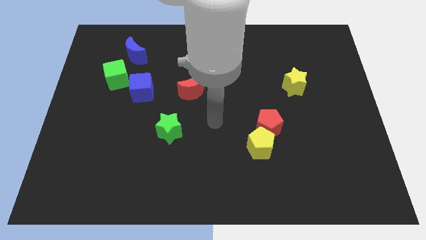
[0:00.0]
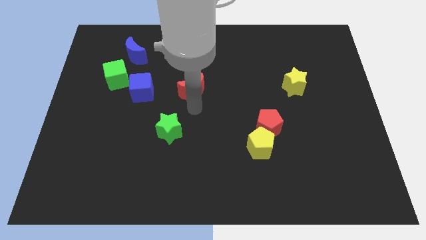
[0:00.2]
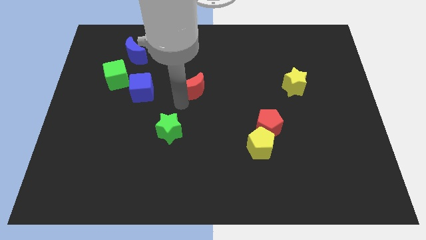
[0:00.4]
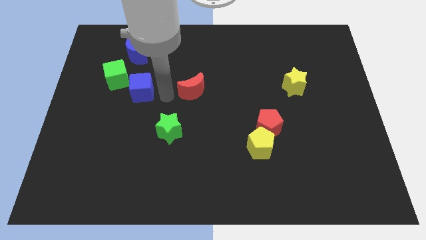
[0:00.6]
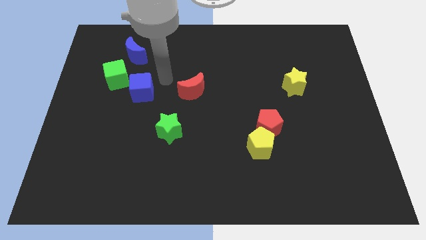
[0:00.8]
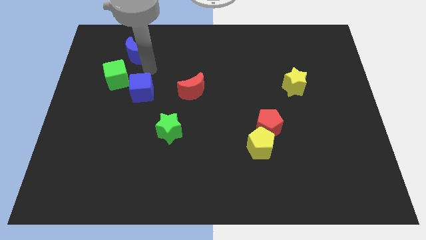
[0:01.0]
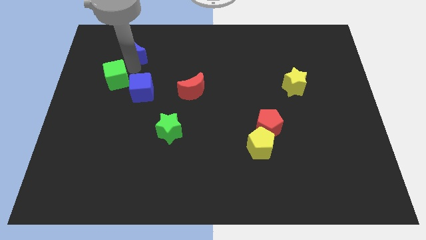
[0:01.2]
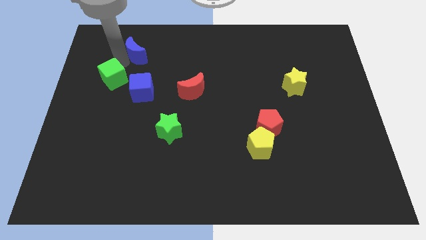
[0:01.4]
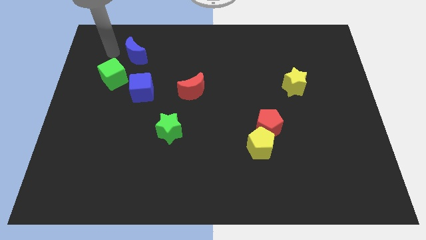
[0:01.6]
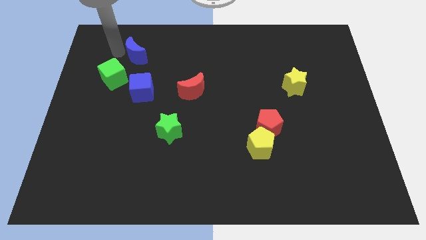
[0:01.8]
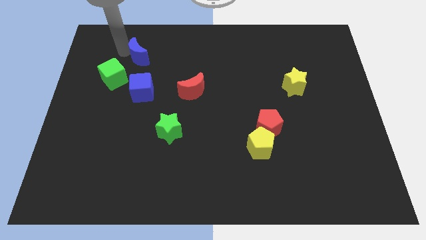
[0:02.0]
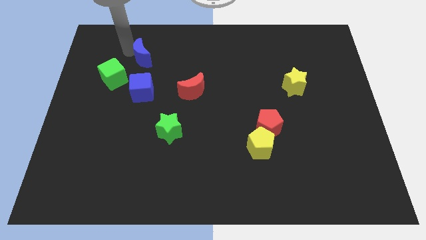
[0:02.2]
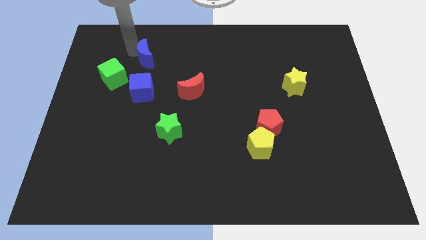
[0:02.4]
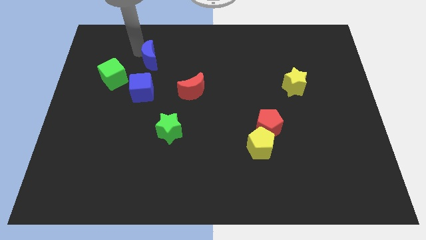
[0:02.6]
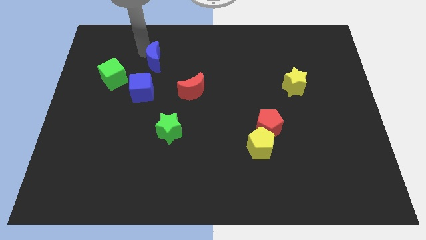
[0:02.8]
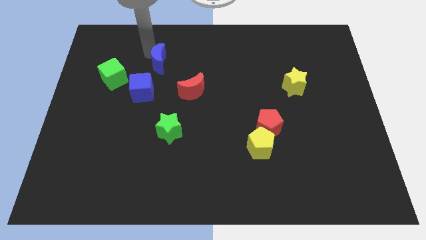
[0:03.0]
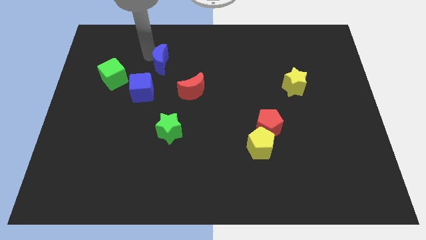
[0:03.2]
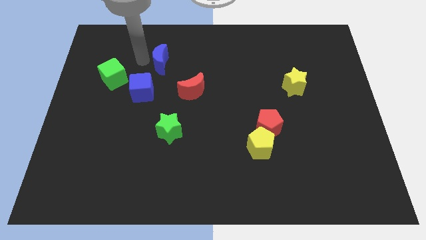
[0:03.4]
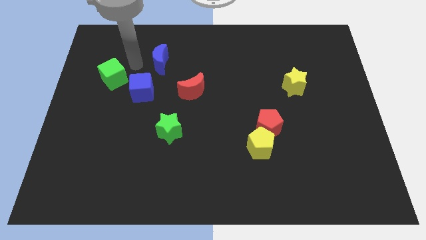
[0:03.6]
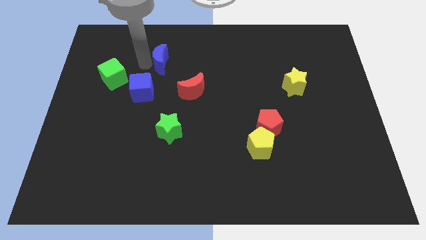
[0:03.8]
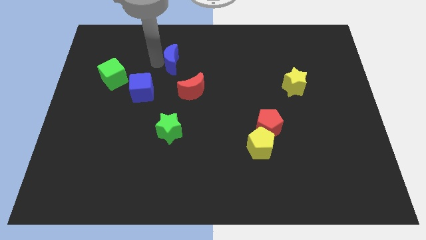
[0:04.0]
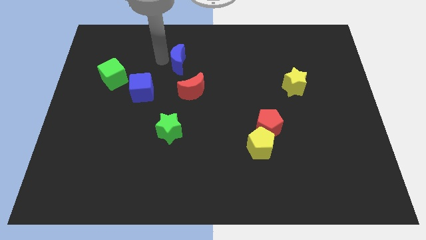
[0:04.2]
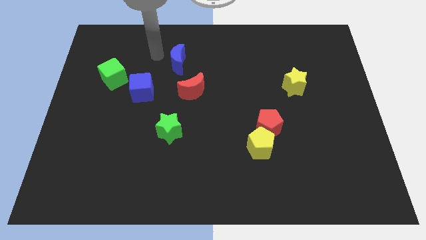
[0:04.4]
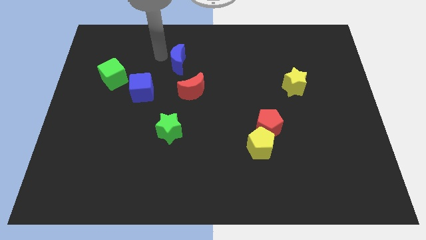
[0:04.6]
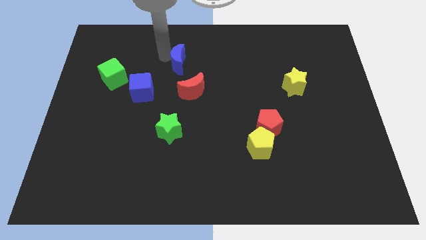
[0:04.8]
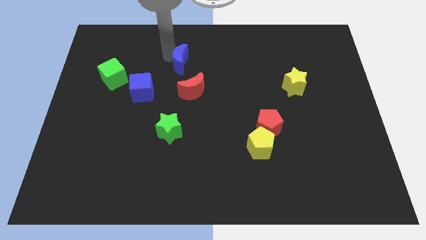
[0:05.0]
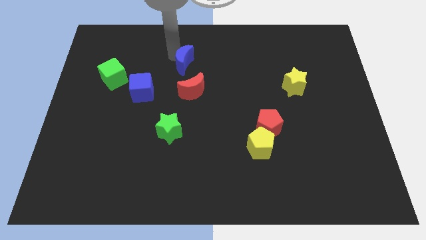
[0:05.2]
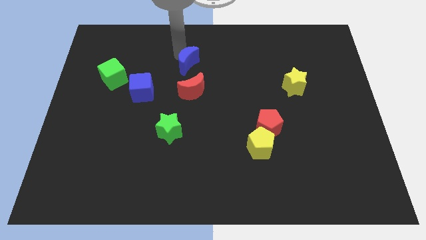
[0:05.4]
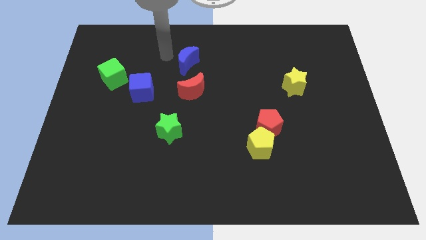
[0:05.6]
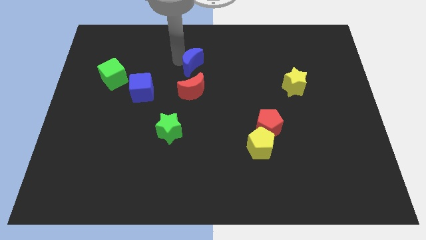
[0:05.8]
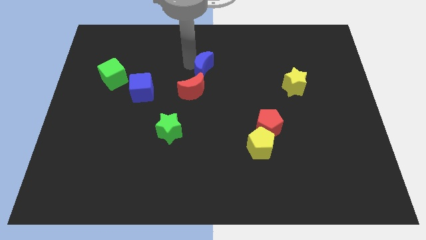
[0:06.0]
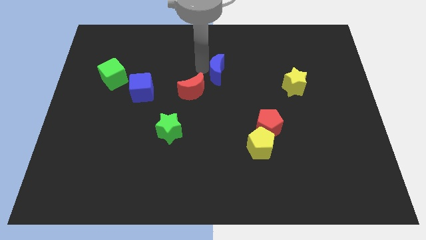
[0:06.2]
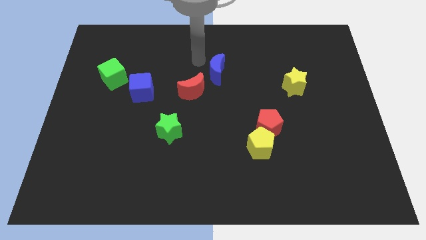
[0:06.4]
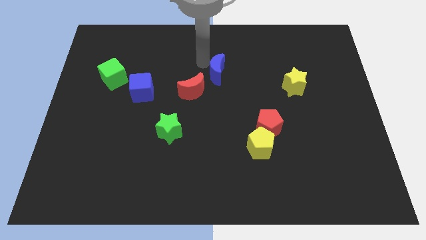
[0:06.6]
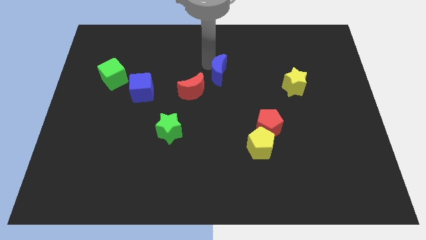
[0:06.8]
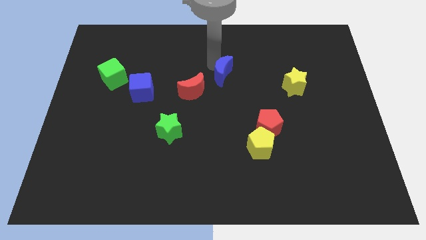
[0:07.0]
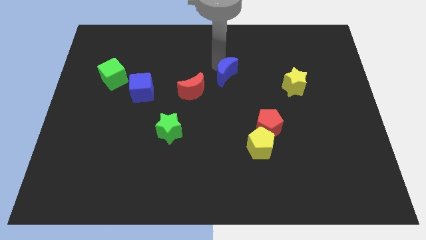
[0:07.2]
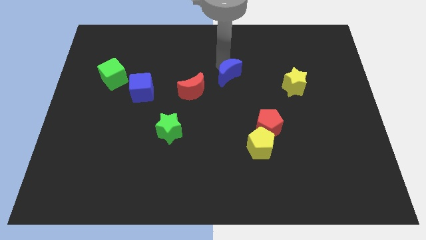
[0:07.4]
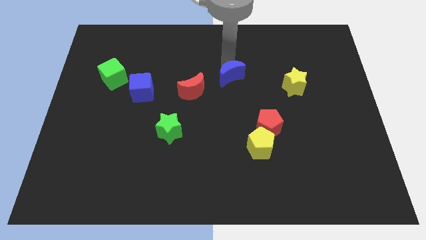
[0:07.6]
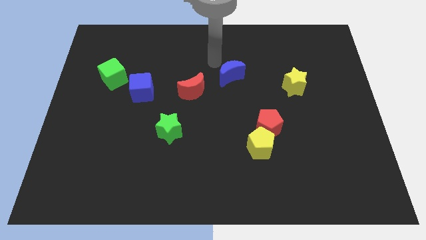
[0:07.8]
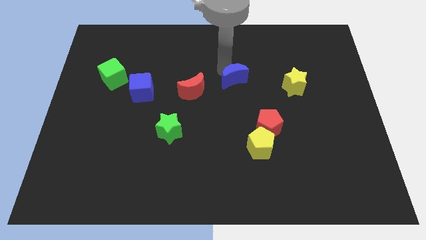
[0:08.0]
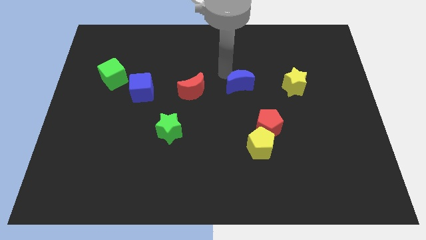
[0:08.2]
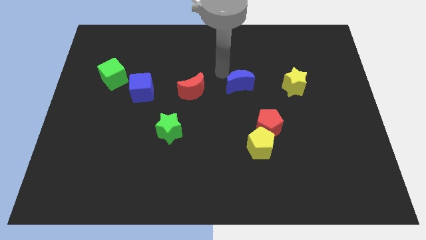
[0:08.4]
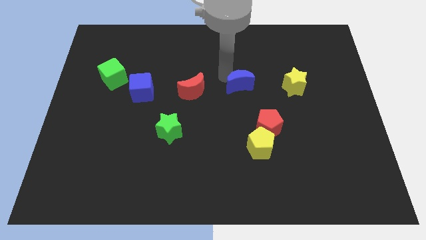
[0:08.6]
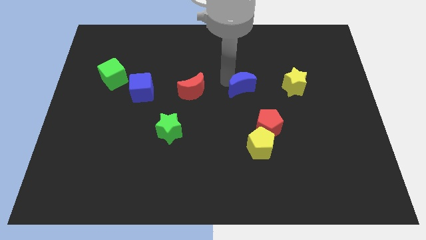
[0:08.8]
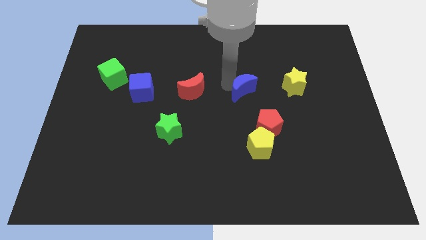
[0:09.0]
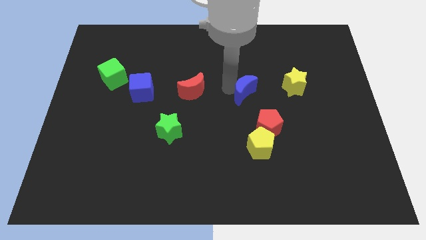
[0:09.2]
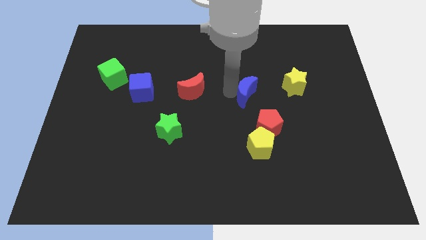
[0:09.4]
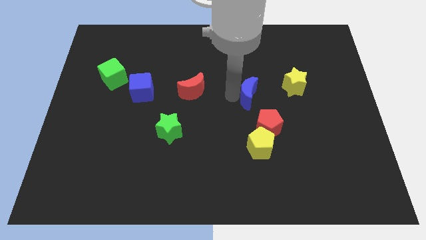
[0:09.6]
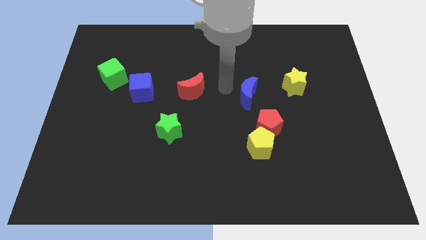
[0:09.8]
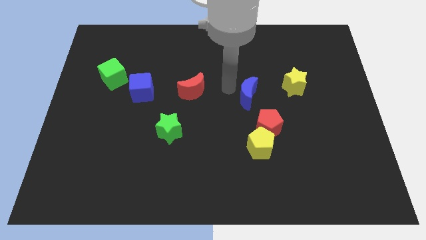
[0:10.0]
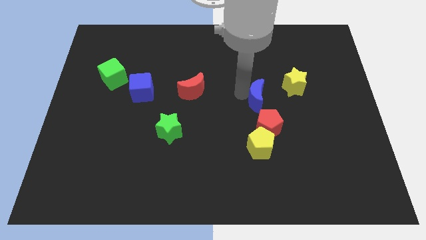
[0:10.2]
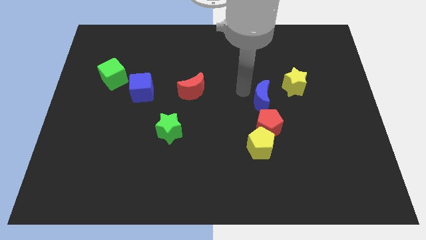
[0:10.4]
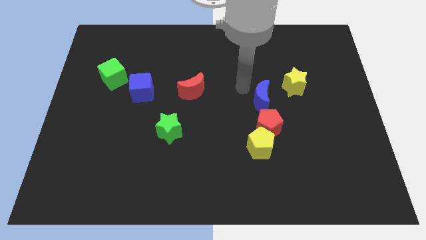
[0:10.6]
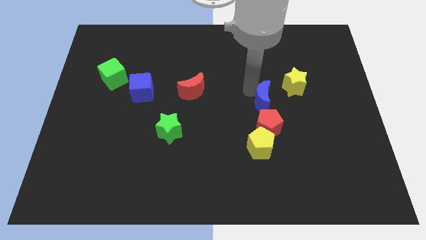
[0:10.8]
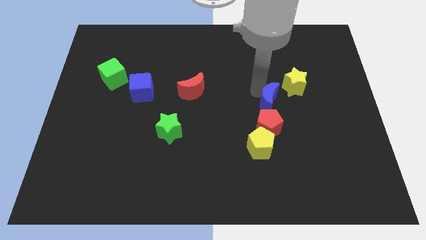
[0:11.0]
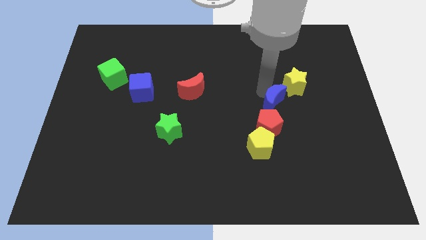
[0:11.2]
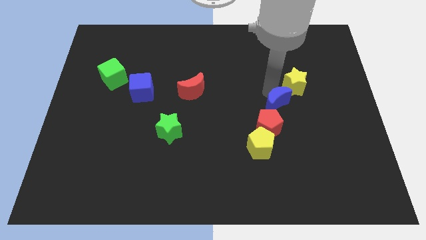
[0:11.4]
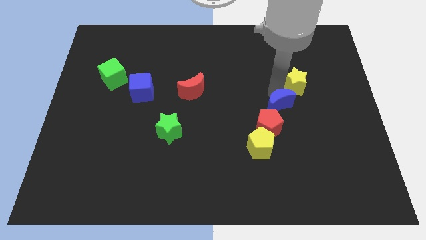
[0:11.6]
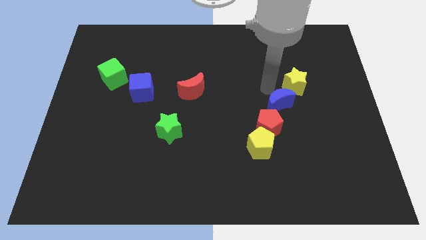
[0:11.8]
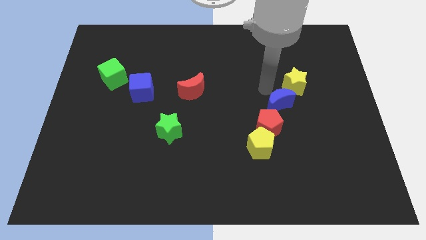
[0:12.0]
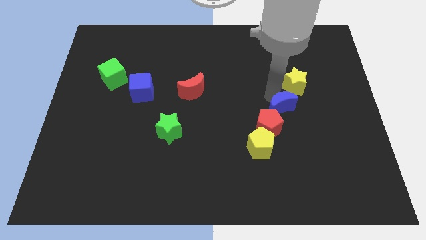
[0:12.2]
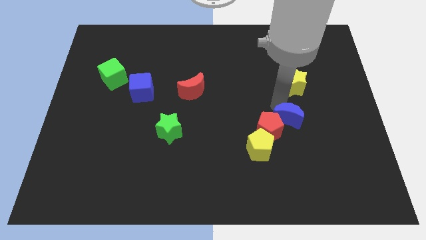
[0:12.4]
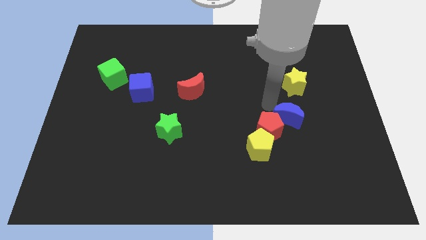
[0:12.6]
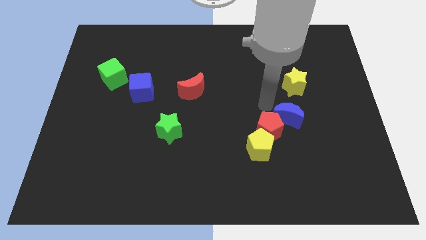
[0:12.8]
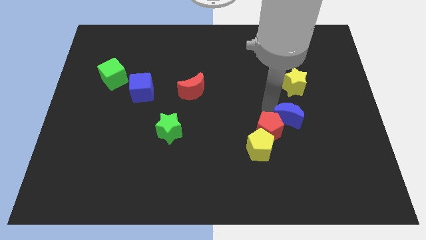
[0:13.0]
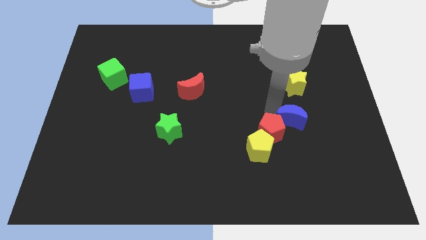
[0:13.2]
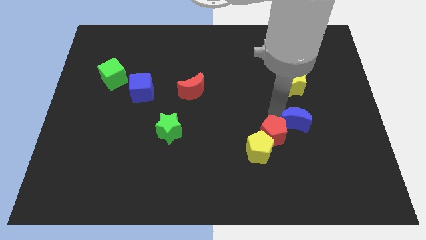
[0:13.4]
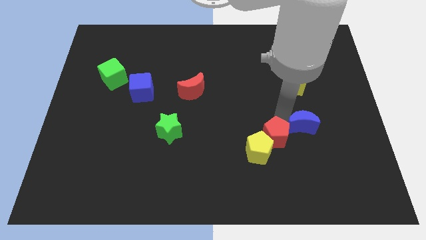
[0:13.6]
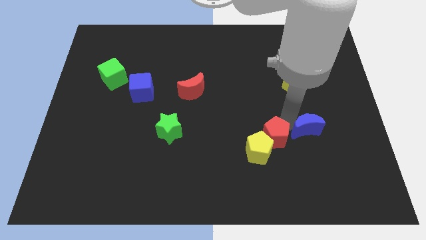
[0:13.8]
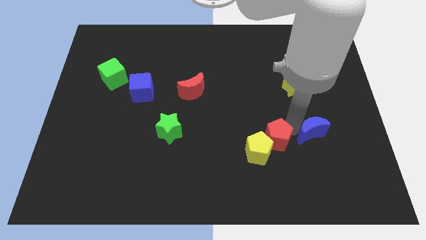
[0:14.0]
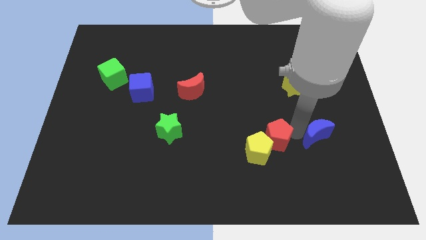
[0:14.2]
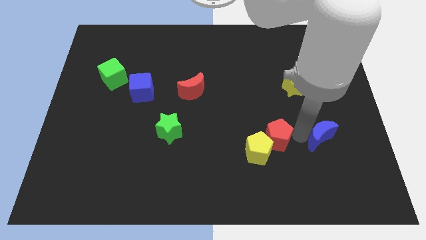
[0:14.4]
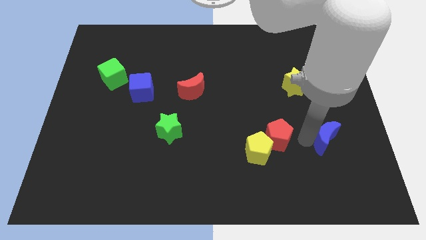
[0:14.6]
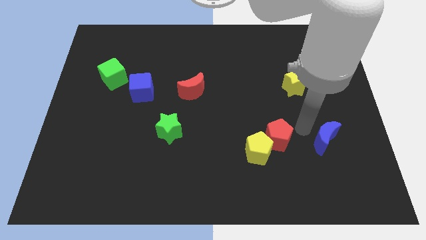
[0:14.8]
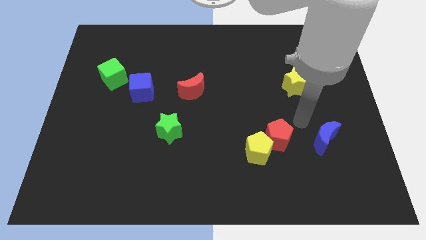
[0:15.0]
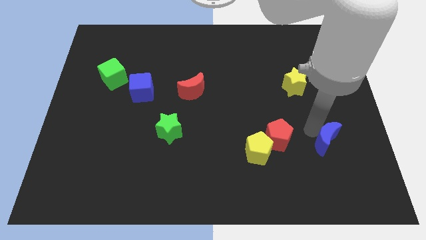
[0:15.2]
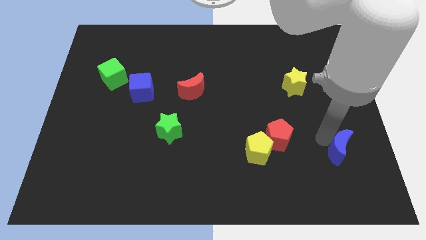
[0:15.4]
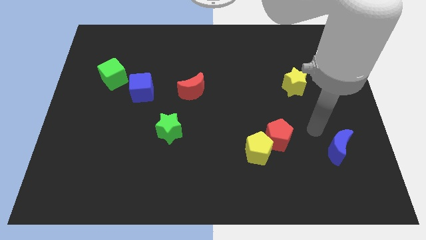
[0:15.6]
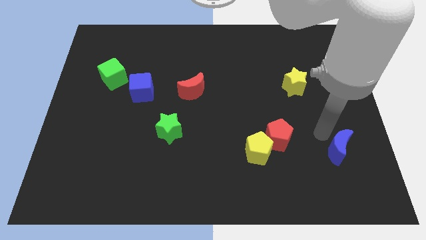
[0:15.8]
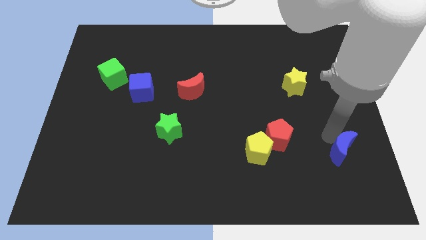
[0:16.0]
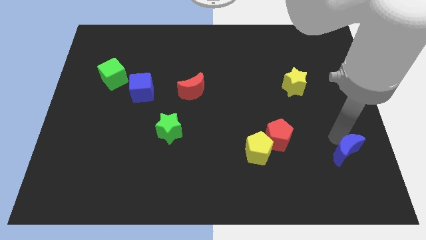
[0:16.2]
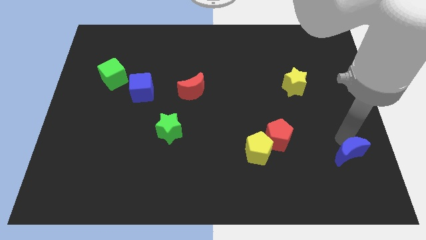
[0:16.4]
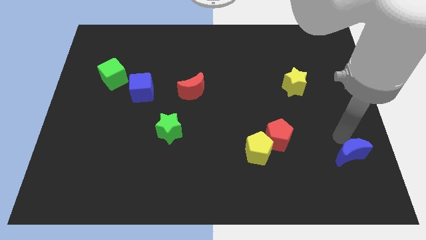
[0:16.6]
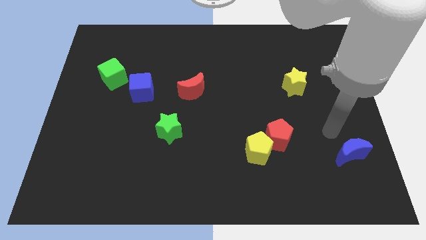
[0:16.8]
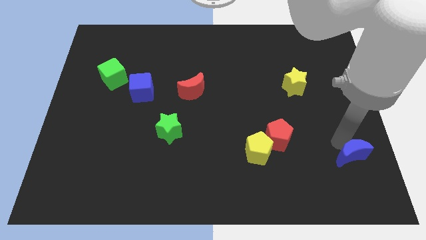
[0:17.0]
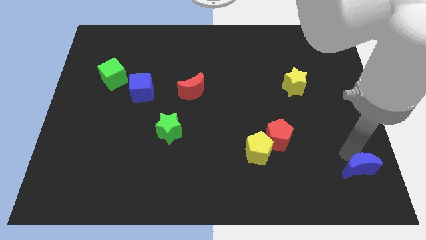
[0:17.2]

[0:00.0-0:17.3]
move the blue moon to the bottom right
